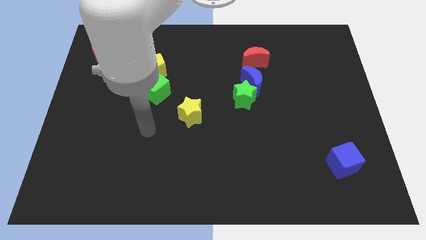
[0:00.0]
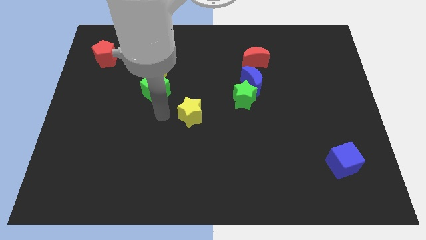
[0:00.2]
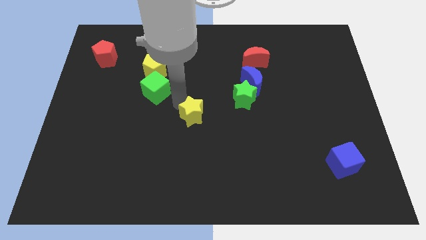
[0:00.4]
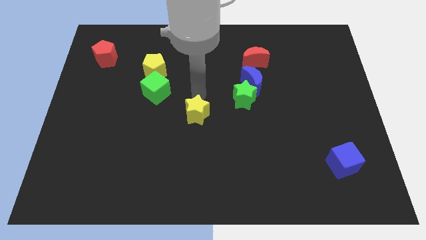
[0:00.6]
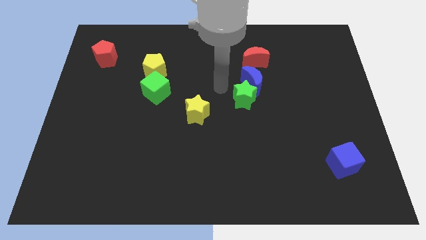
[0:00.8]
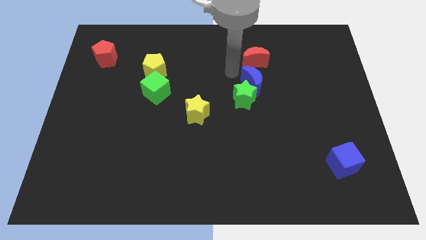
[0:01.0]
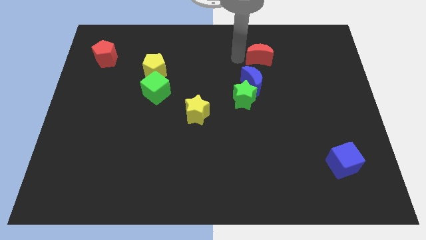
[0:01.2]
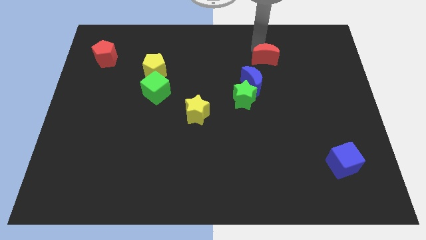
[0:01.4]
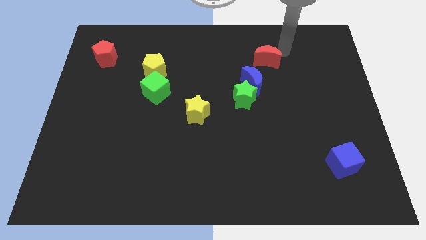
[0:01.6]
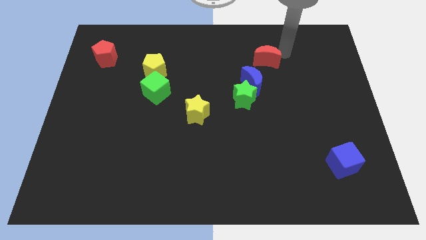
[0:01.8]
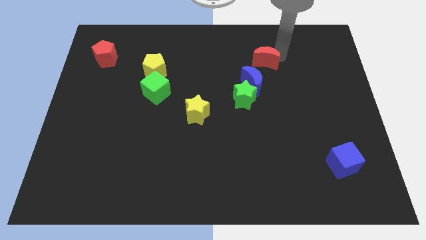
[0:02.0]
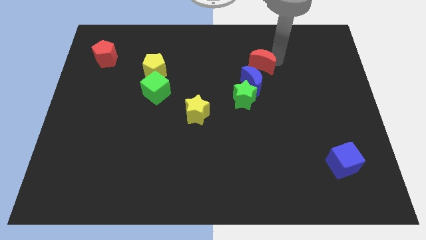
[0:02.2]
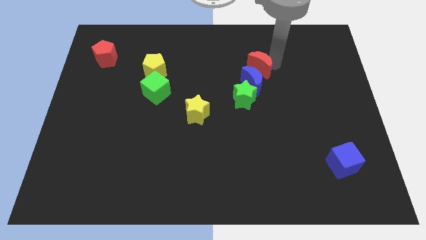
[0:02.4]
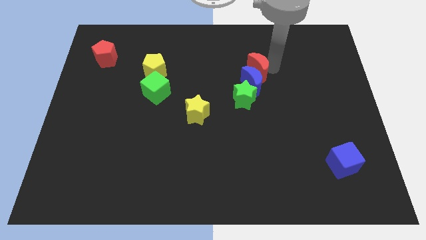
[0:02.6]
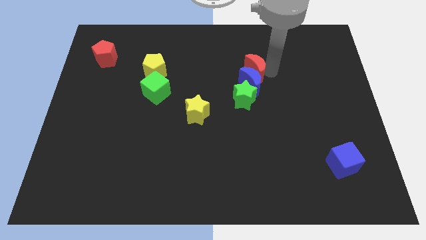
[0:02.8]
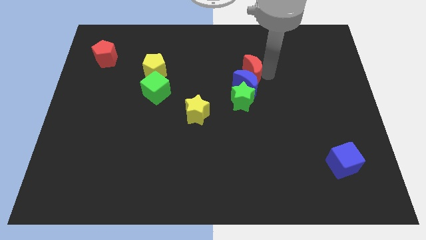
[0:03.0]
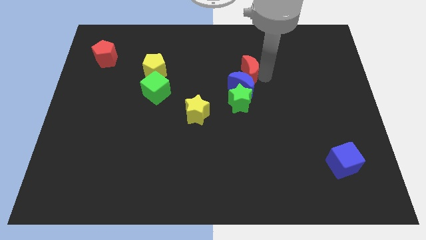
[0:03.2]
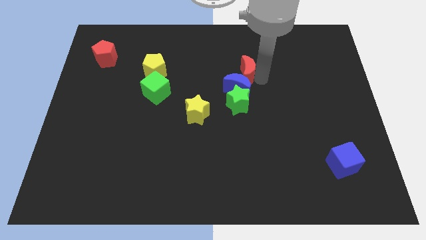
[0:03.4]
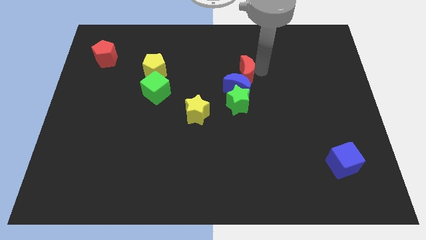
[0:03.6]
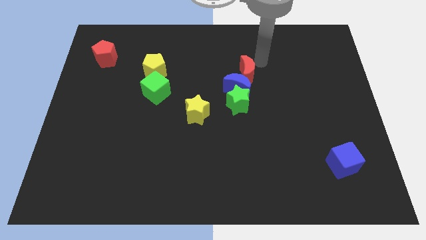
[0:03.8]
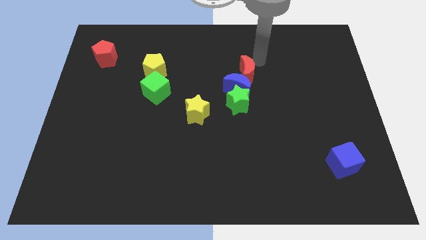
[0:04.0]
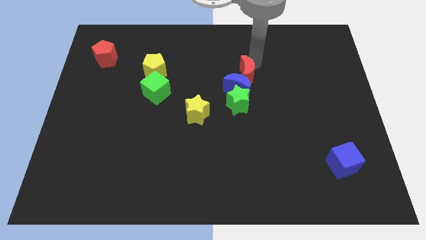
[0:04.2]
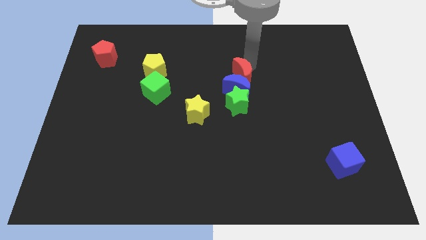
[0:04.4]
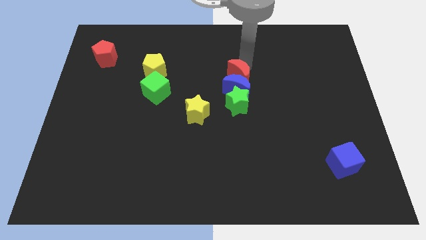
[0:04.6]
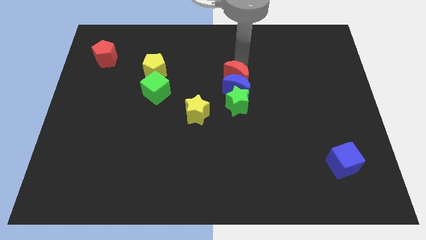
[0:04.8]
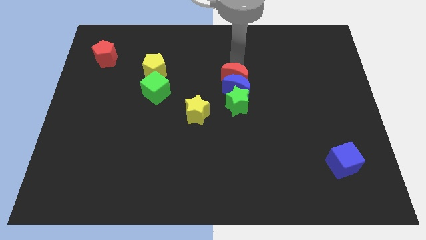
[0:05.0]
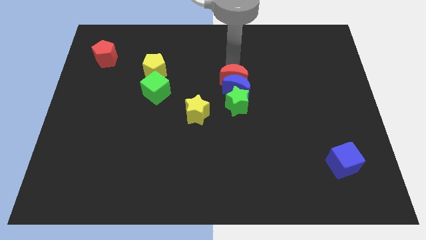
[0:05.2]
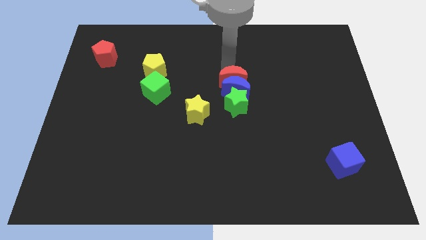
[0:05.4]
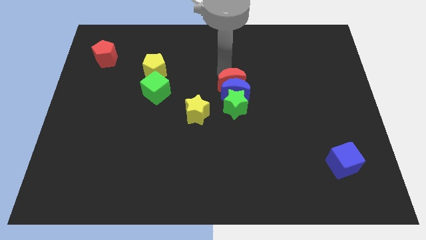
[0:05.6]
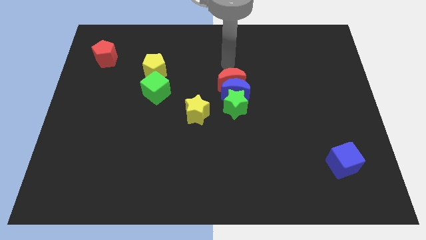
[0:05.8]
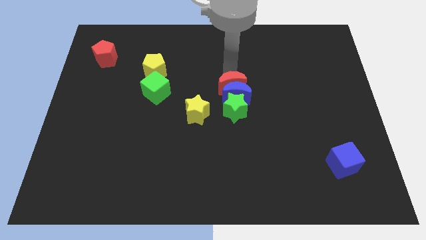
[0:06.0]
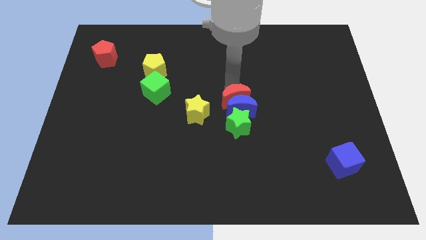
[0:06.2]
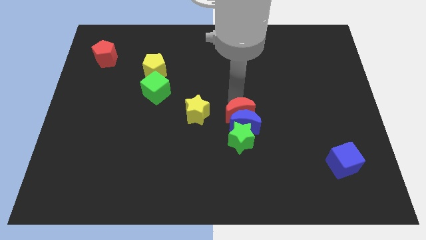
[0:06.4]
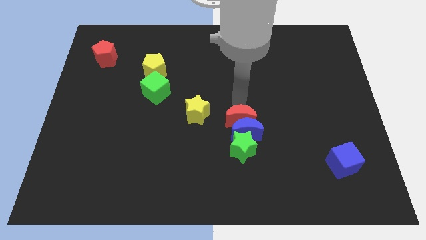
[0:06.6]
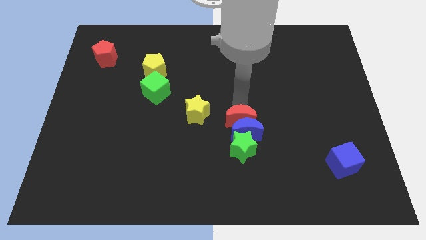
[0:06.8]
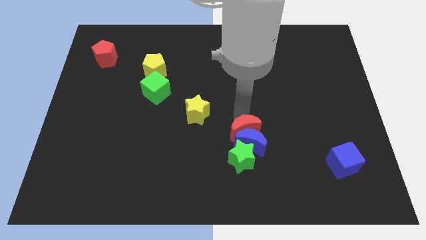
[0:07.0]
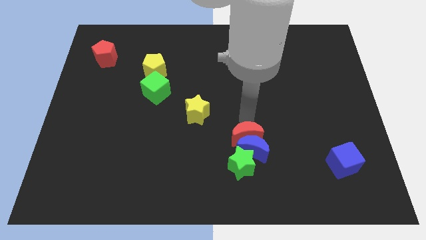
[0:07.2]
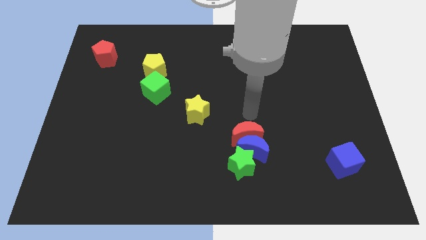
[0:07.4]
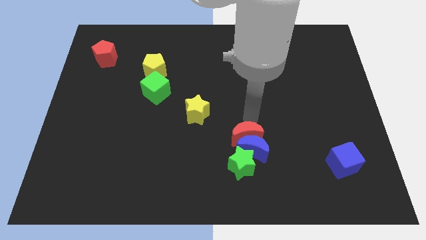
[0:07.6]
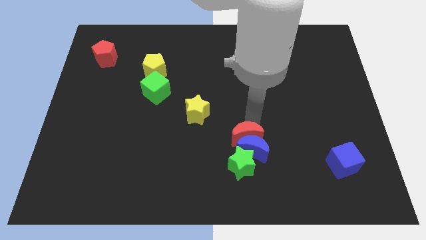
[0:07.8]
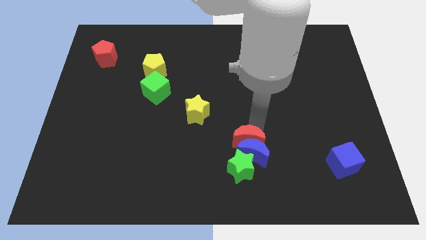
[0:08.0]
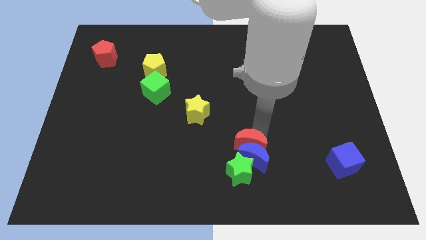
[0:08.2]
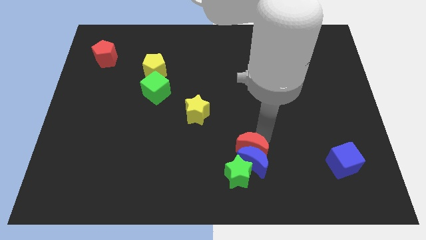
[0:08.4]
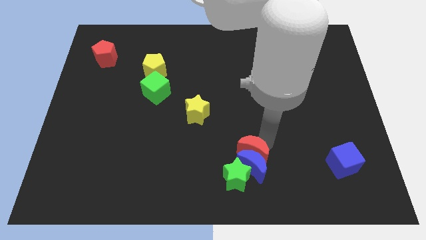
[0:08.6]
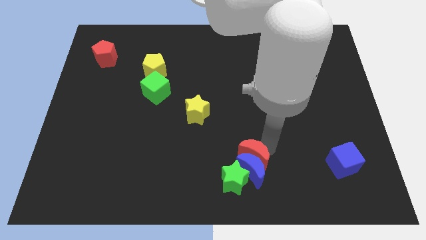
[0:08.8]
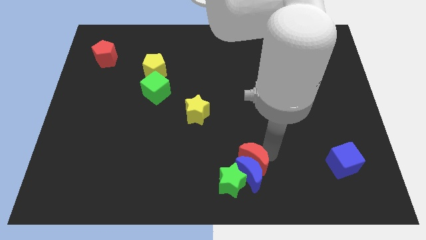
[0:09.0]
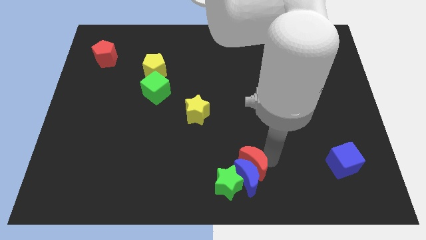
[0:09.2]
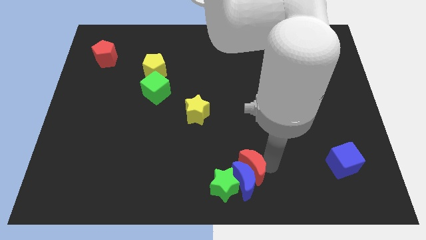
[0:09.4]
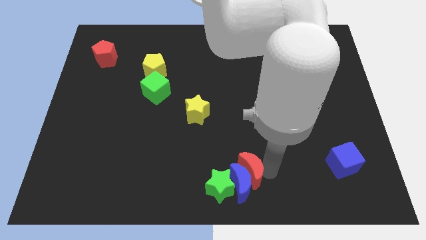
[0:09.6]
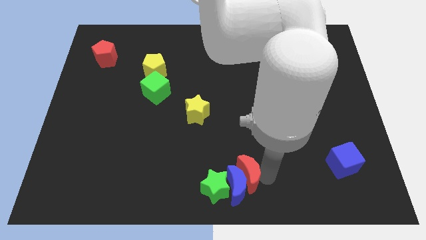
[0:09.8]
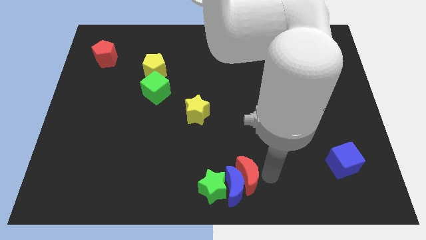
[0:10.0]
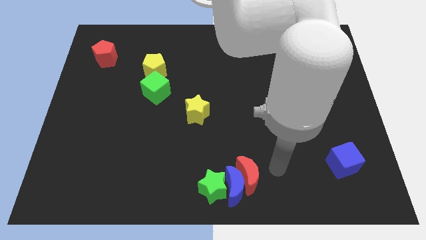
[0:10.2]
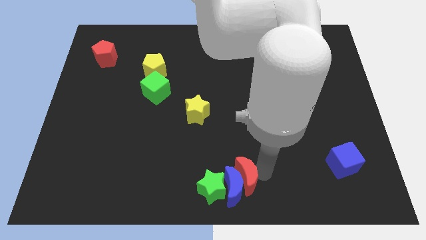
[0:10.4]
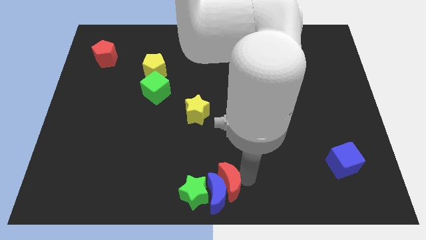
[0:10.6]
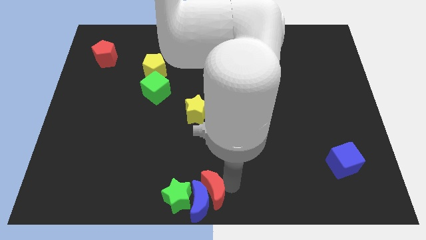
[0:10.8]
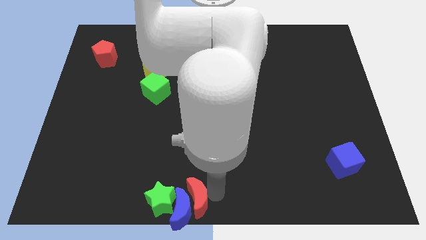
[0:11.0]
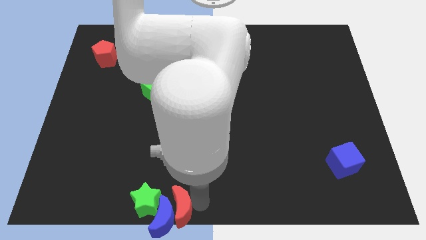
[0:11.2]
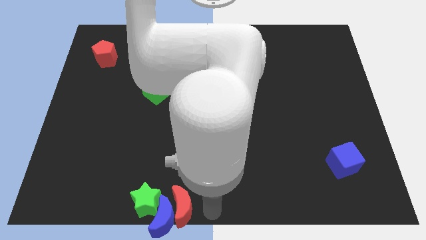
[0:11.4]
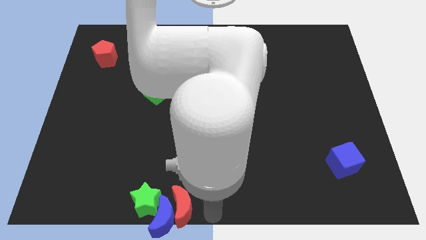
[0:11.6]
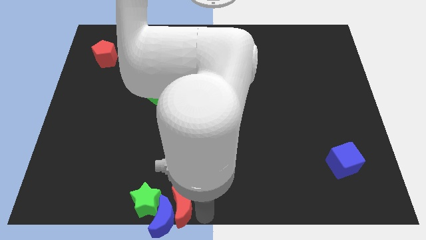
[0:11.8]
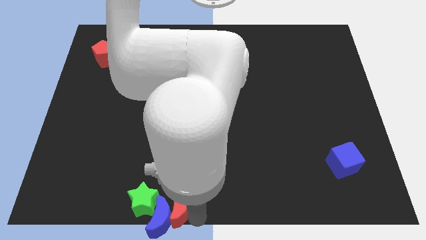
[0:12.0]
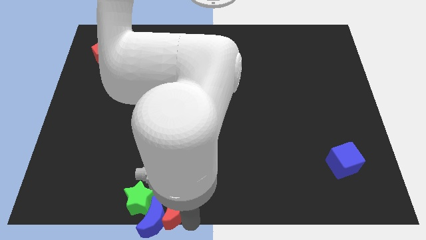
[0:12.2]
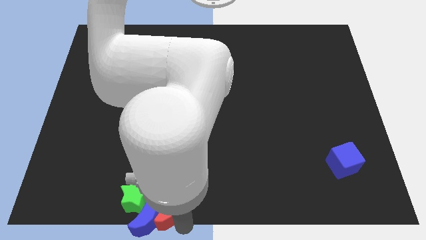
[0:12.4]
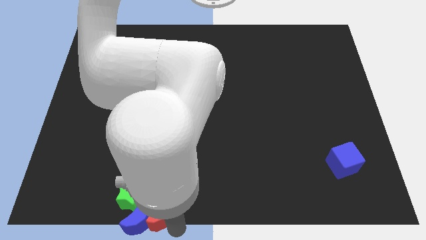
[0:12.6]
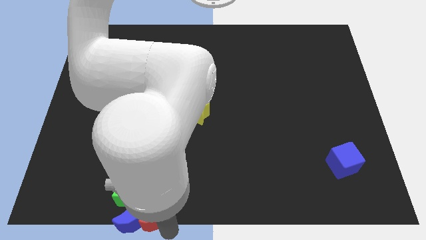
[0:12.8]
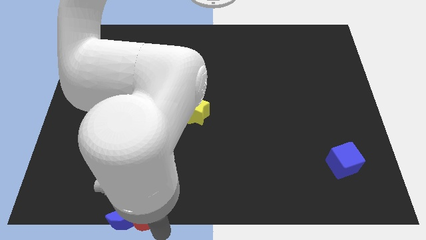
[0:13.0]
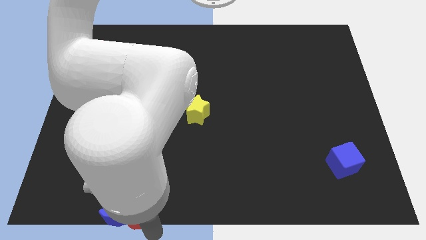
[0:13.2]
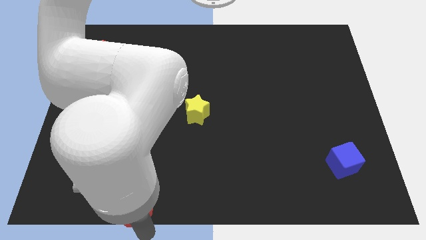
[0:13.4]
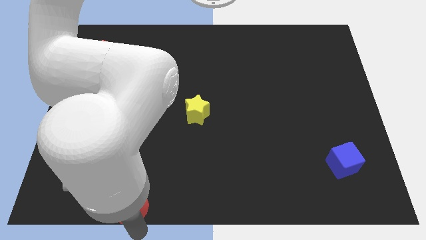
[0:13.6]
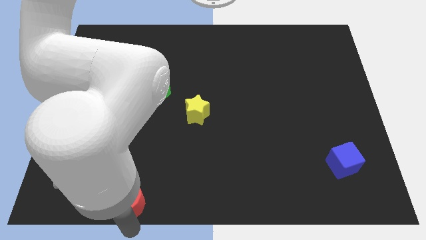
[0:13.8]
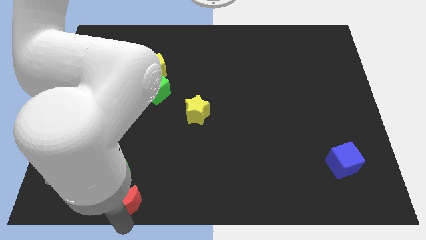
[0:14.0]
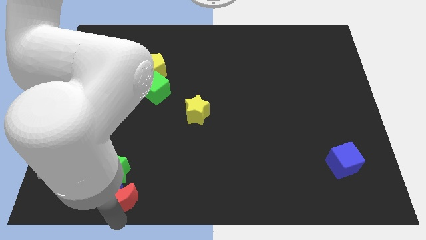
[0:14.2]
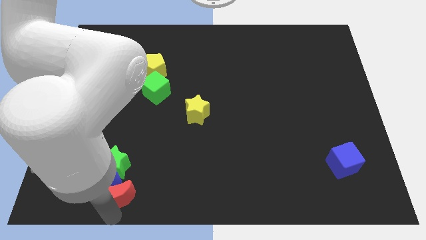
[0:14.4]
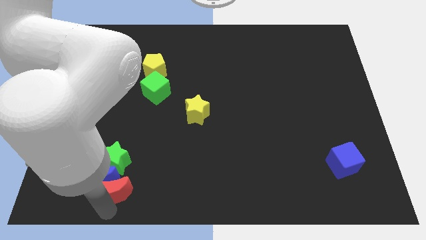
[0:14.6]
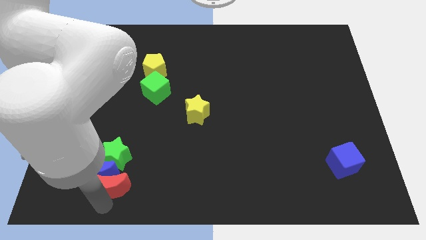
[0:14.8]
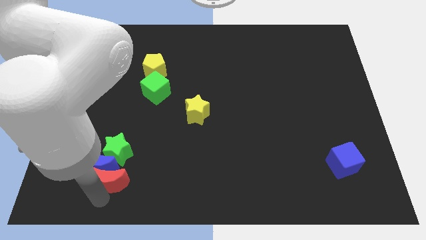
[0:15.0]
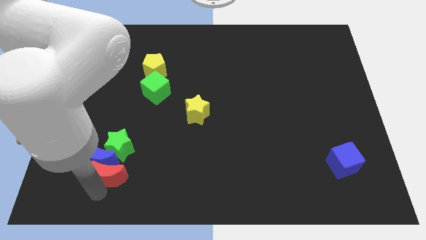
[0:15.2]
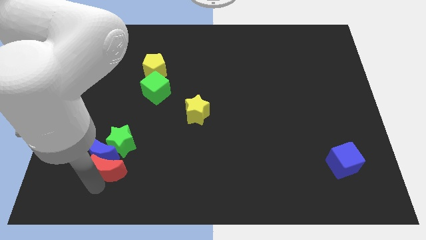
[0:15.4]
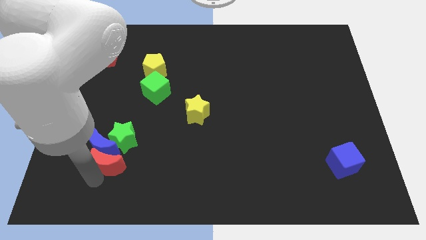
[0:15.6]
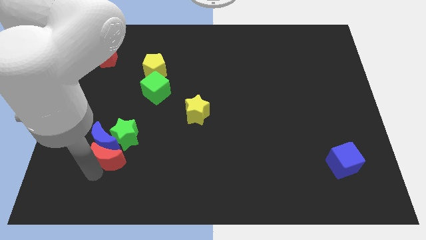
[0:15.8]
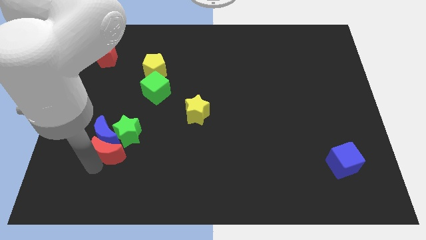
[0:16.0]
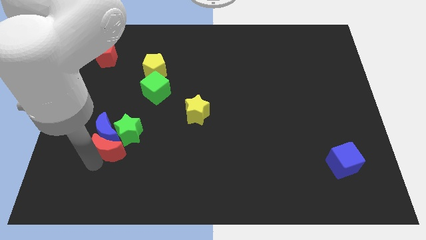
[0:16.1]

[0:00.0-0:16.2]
move the red moon close to the green star
